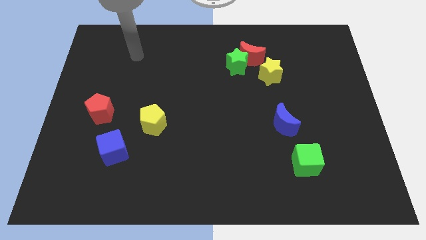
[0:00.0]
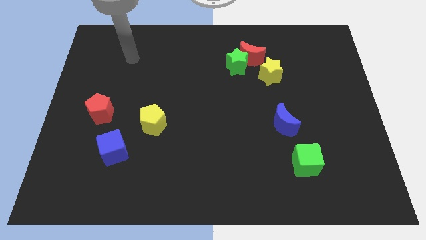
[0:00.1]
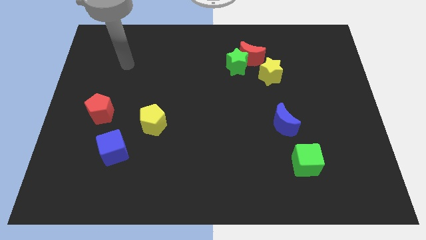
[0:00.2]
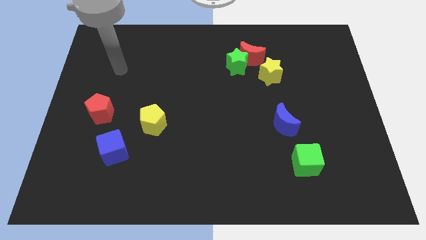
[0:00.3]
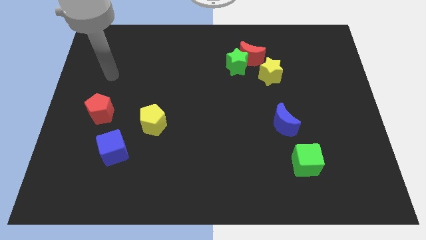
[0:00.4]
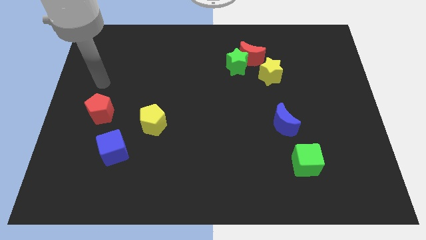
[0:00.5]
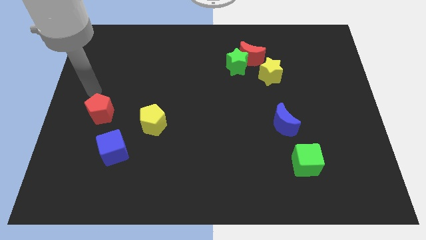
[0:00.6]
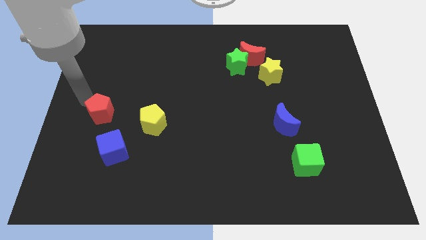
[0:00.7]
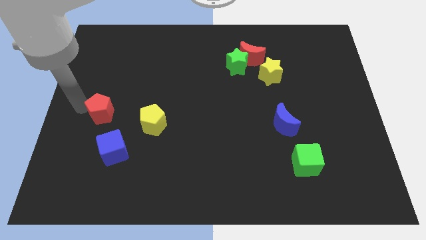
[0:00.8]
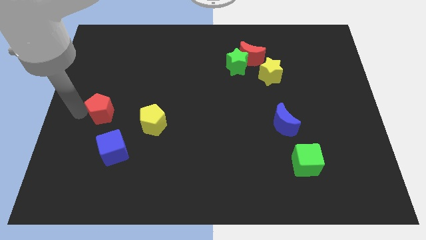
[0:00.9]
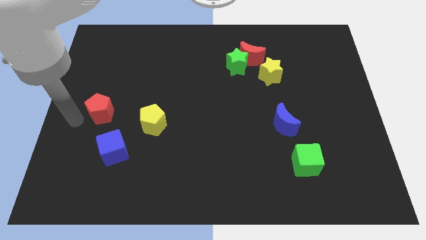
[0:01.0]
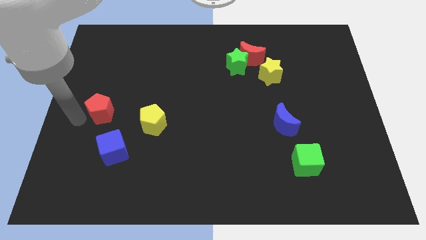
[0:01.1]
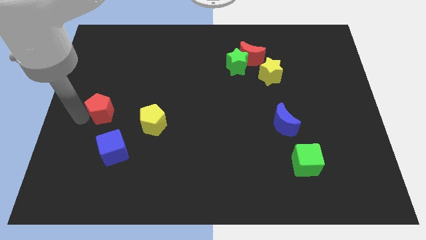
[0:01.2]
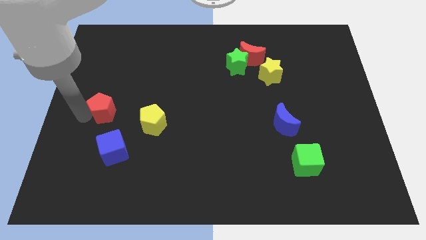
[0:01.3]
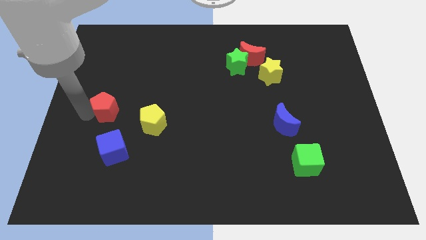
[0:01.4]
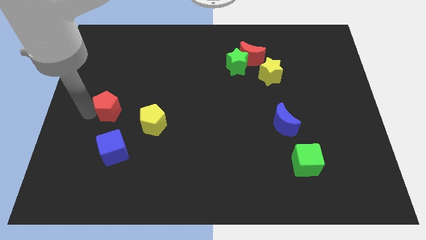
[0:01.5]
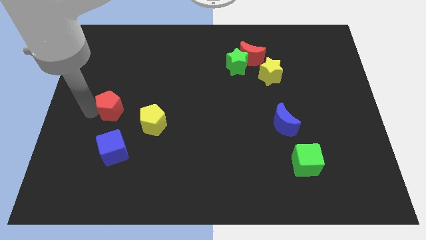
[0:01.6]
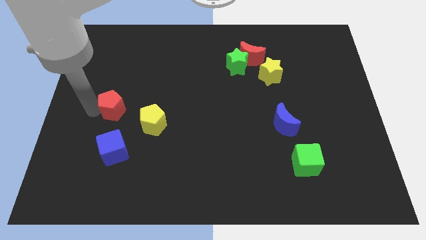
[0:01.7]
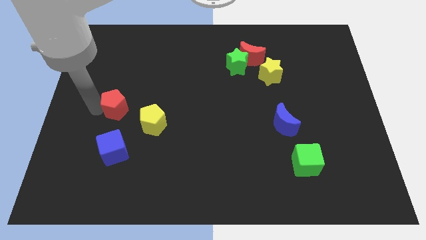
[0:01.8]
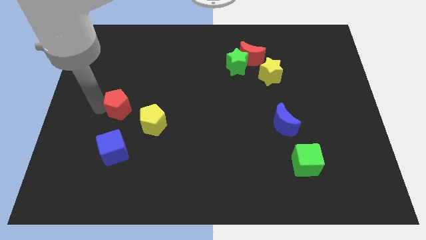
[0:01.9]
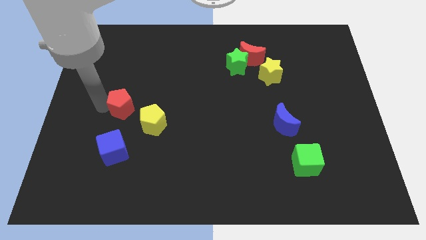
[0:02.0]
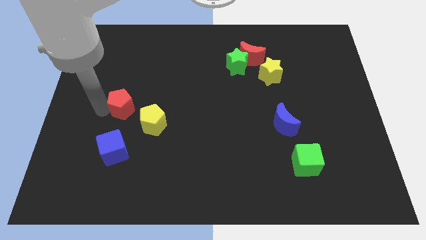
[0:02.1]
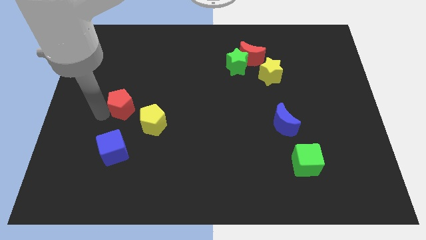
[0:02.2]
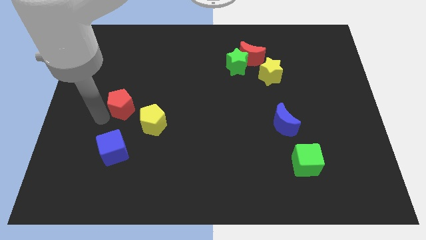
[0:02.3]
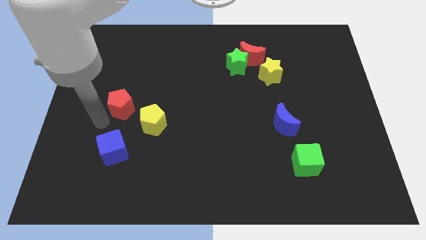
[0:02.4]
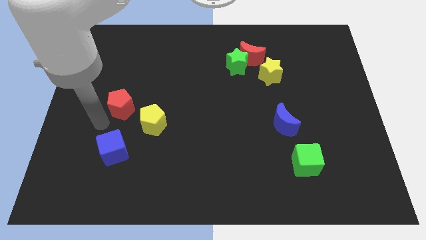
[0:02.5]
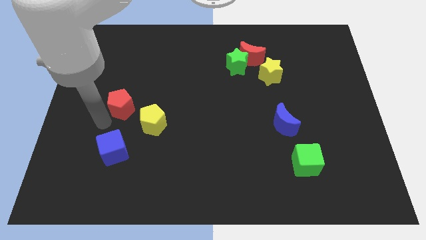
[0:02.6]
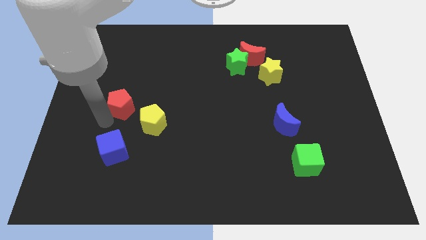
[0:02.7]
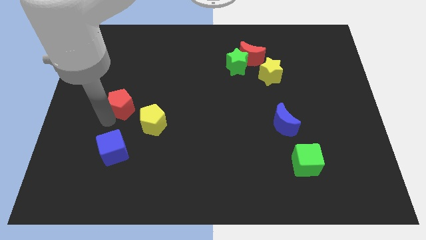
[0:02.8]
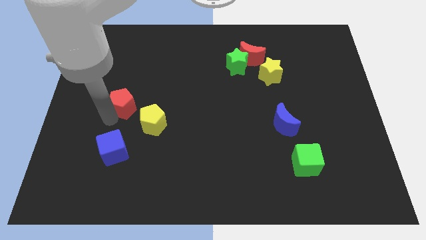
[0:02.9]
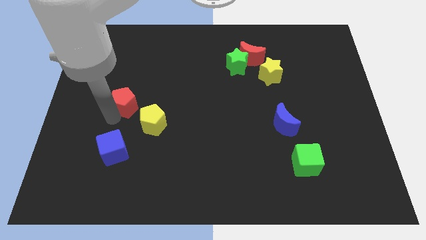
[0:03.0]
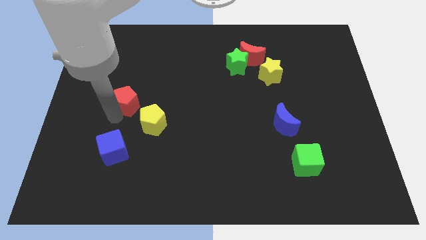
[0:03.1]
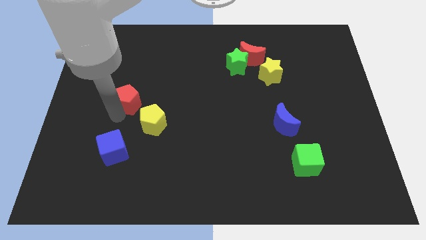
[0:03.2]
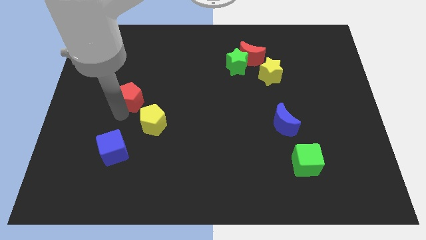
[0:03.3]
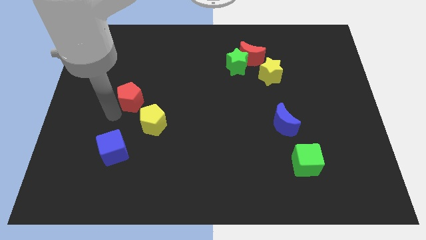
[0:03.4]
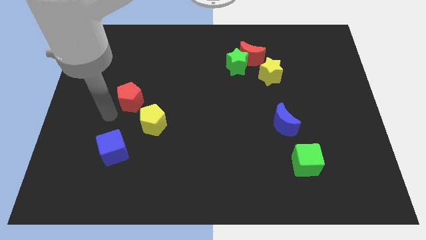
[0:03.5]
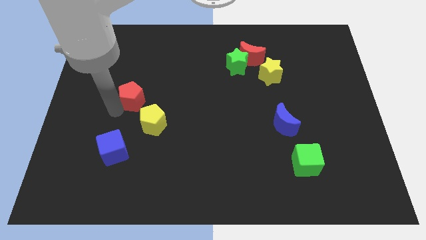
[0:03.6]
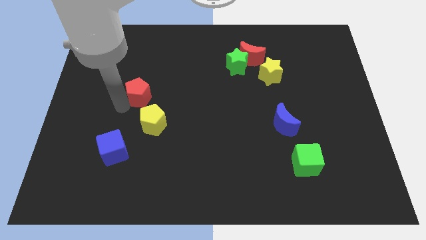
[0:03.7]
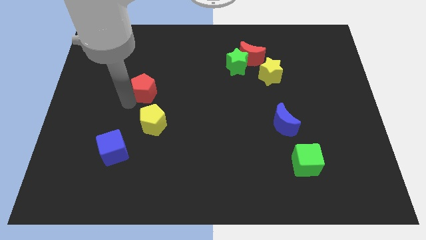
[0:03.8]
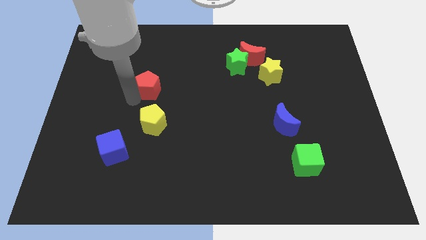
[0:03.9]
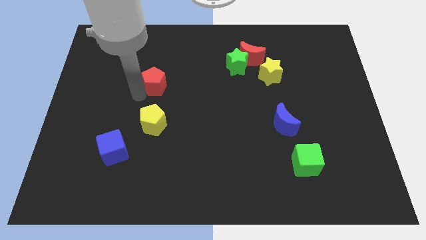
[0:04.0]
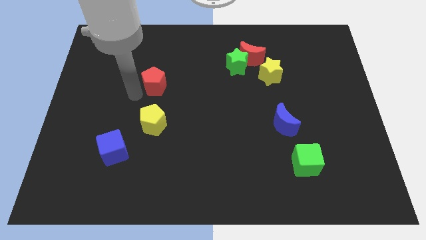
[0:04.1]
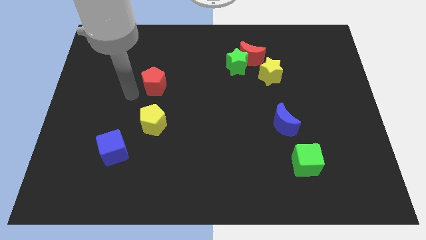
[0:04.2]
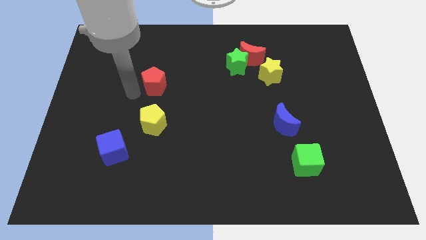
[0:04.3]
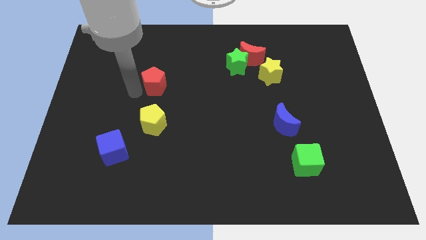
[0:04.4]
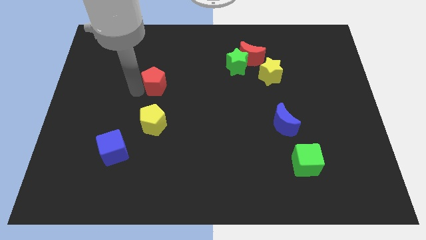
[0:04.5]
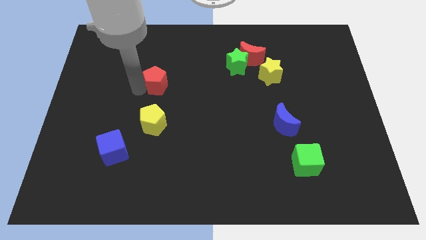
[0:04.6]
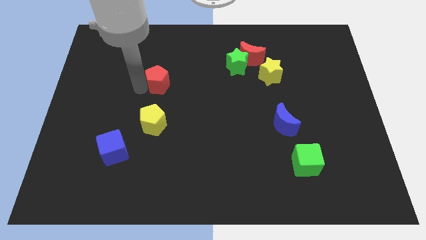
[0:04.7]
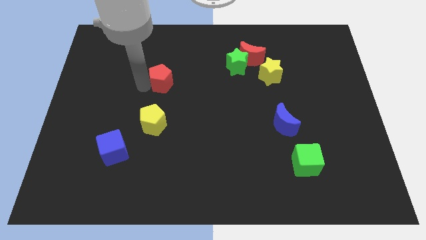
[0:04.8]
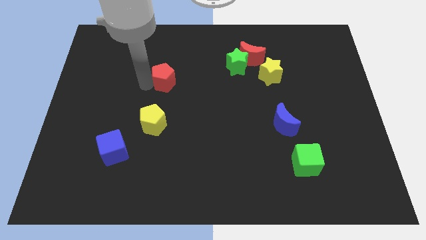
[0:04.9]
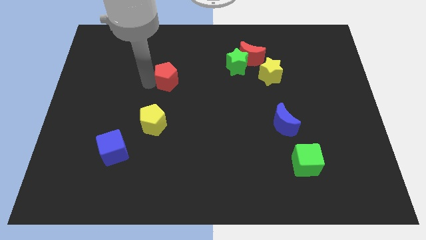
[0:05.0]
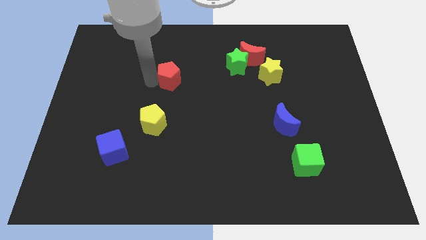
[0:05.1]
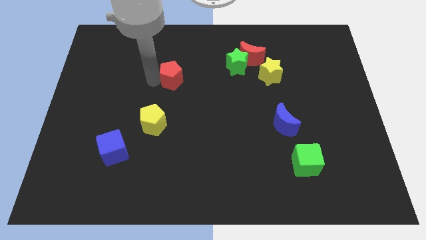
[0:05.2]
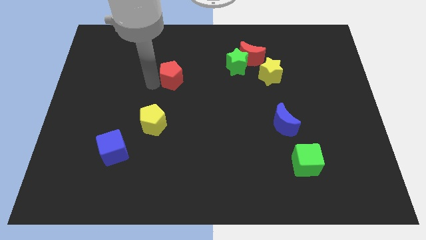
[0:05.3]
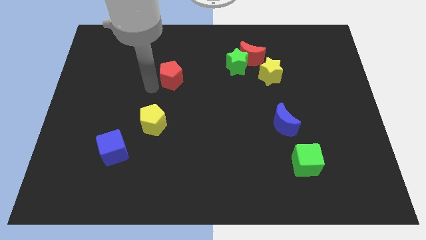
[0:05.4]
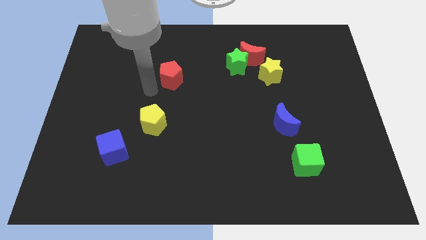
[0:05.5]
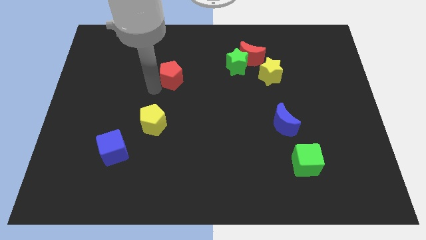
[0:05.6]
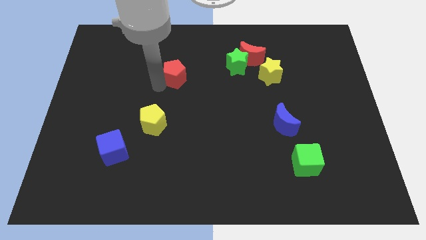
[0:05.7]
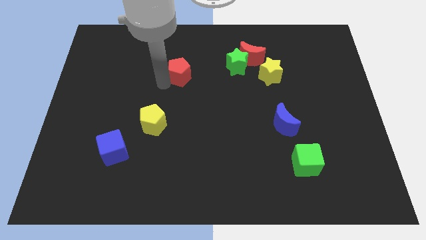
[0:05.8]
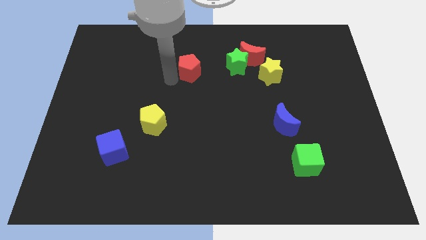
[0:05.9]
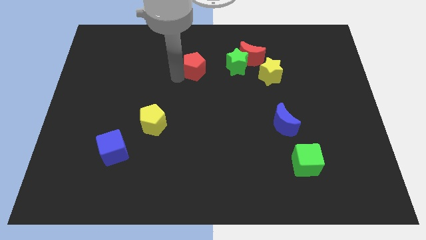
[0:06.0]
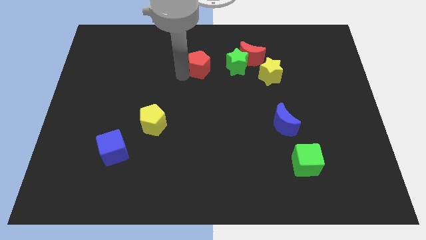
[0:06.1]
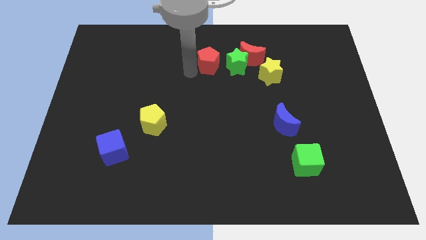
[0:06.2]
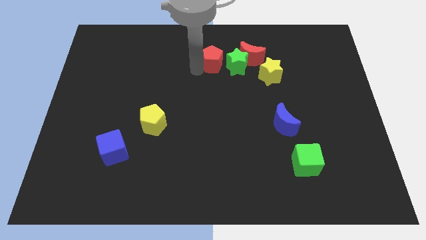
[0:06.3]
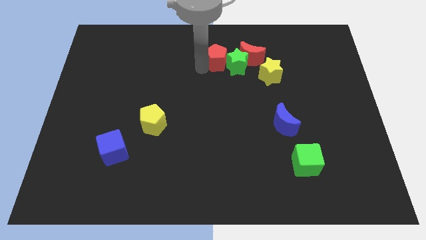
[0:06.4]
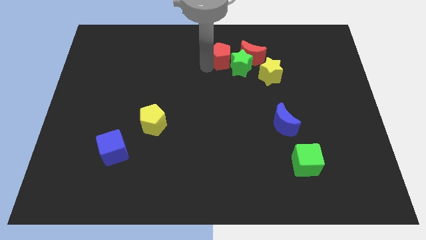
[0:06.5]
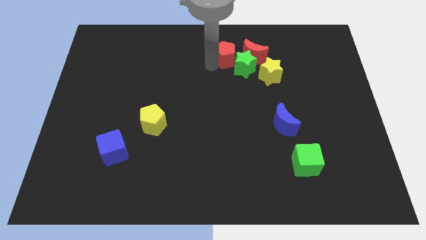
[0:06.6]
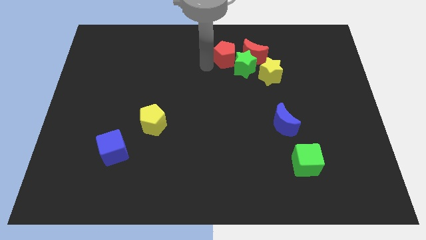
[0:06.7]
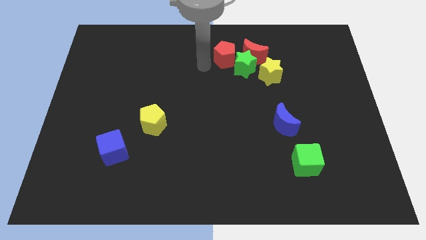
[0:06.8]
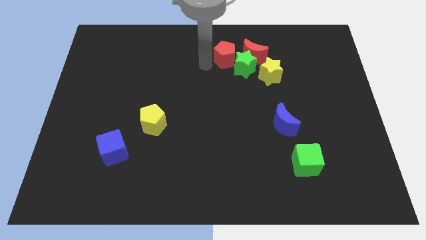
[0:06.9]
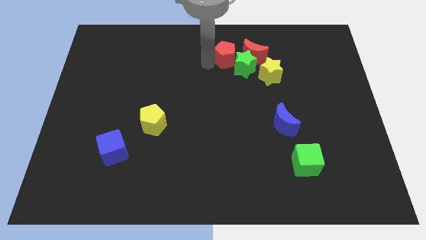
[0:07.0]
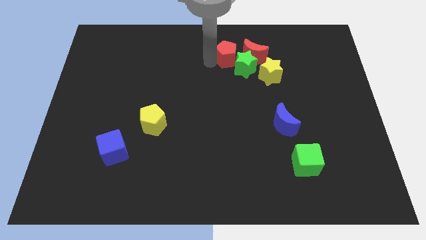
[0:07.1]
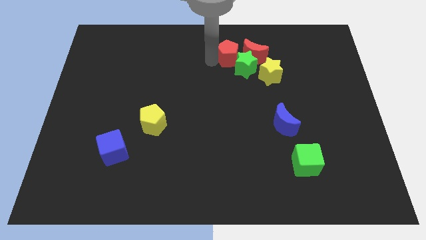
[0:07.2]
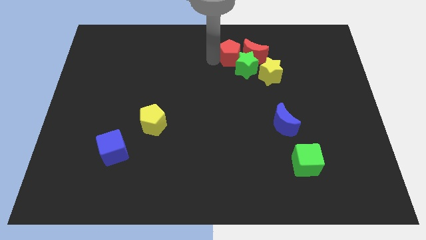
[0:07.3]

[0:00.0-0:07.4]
move the red pentagon next to the red moon
